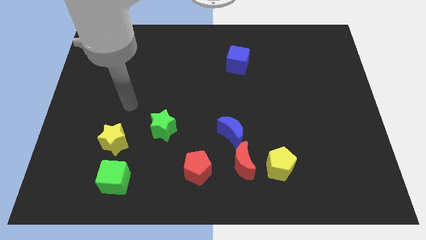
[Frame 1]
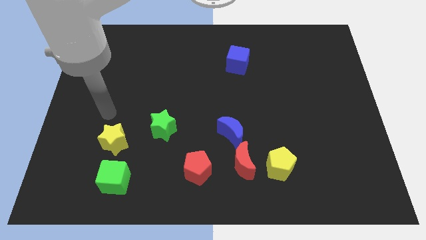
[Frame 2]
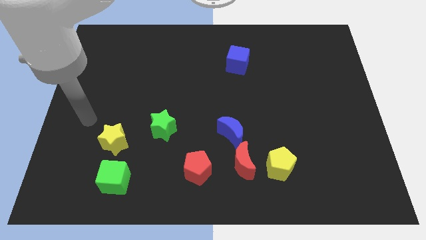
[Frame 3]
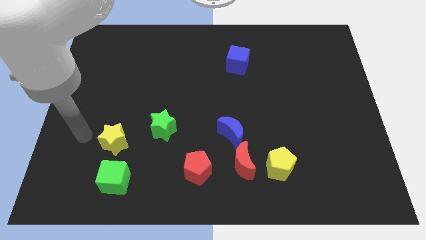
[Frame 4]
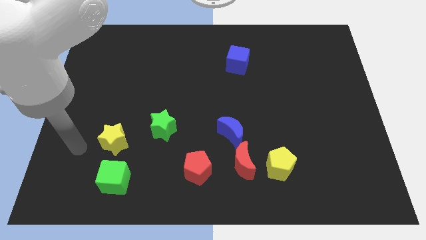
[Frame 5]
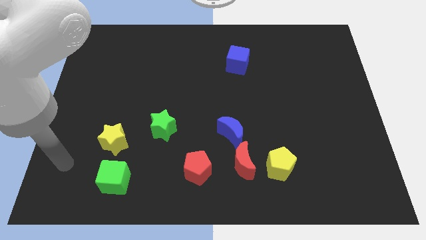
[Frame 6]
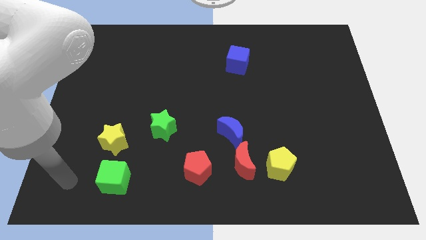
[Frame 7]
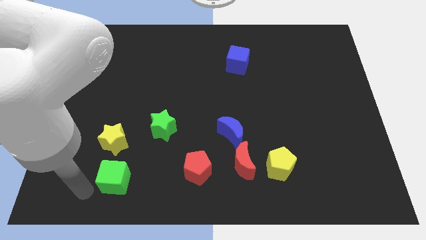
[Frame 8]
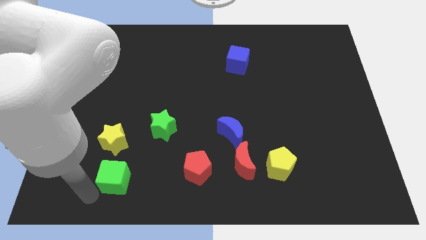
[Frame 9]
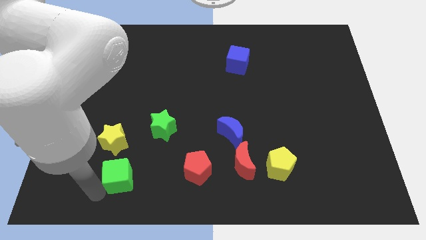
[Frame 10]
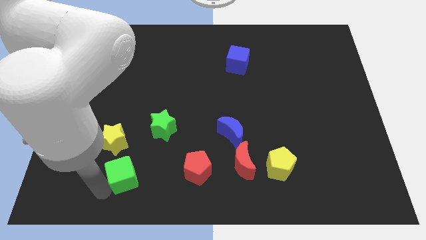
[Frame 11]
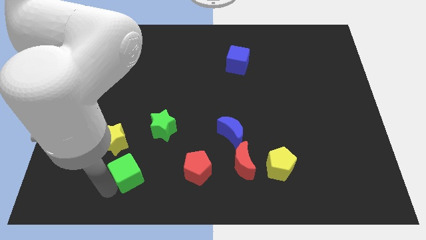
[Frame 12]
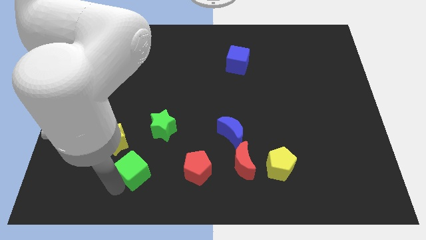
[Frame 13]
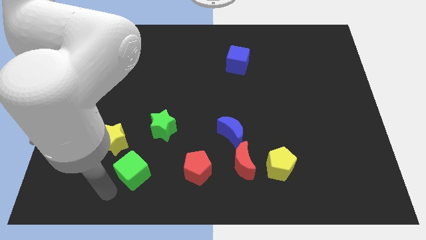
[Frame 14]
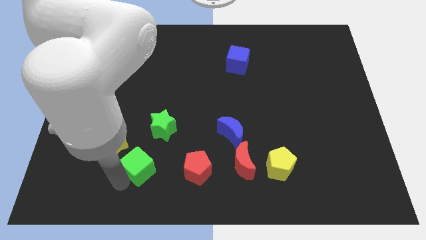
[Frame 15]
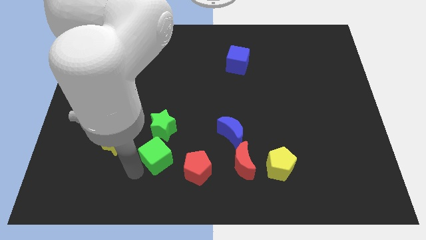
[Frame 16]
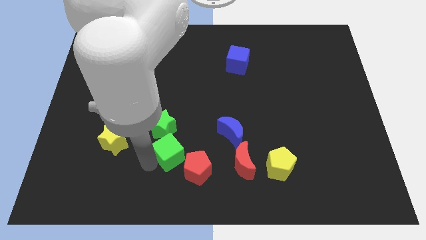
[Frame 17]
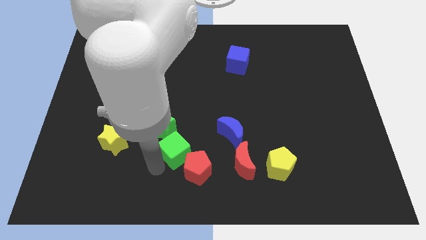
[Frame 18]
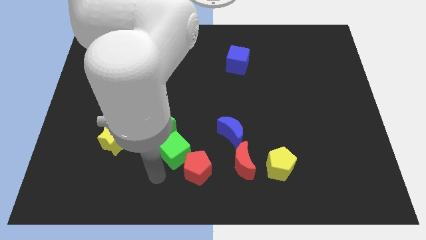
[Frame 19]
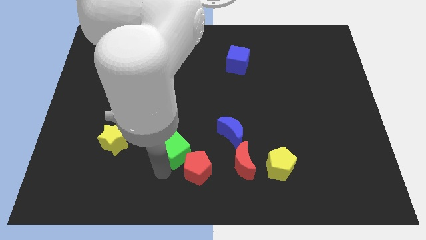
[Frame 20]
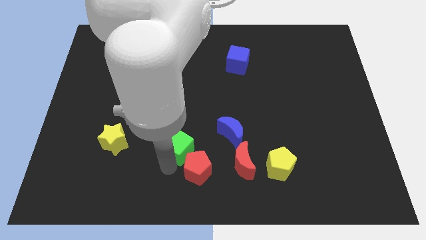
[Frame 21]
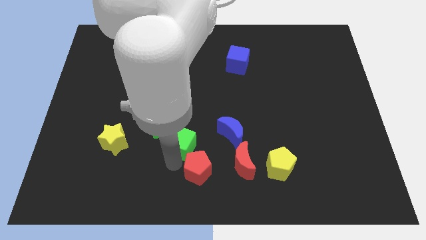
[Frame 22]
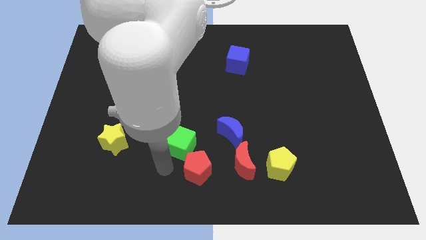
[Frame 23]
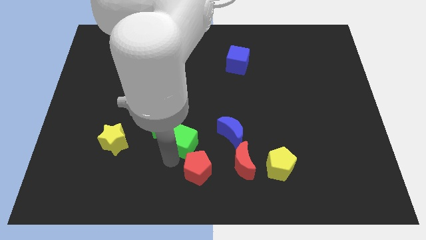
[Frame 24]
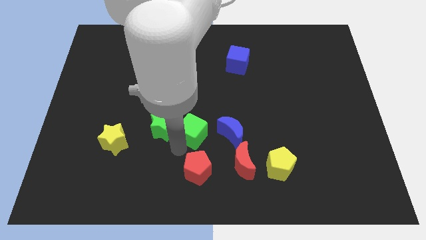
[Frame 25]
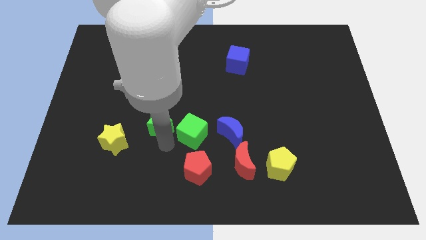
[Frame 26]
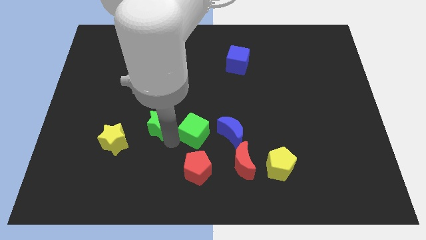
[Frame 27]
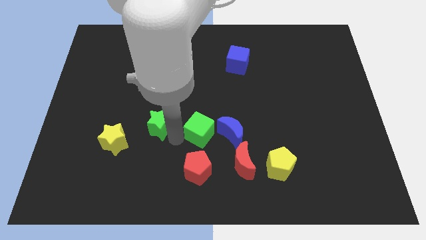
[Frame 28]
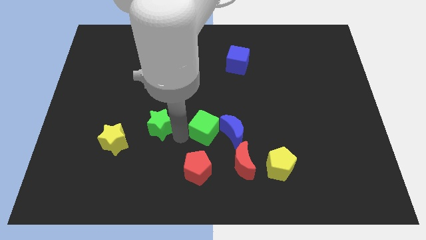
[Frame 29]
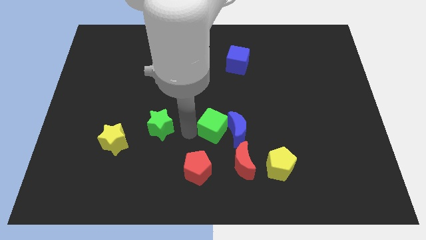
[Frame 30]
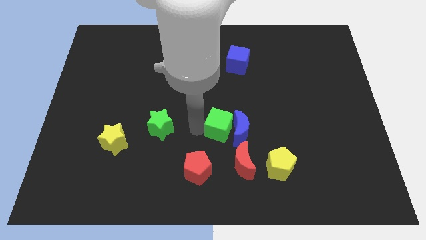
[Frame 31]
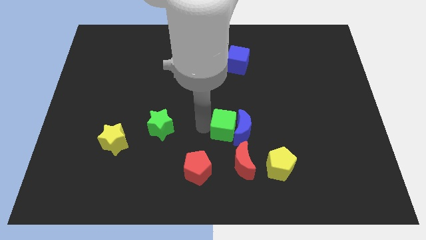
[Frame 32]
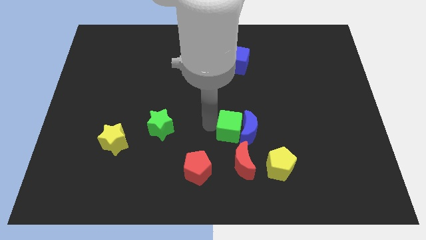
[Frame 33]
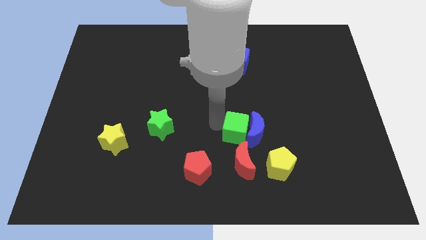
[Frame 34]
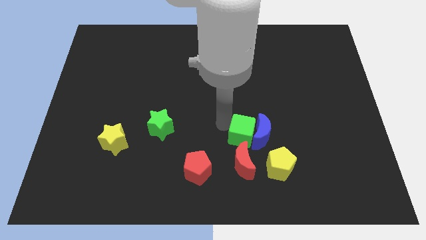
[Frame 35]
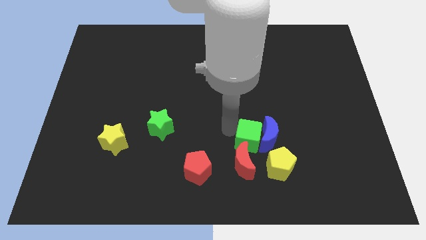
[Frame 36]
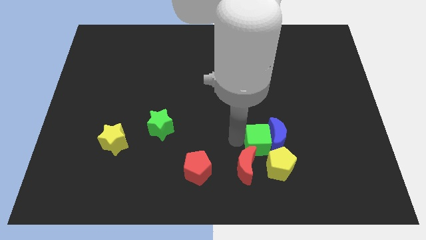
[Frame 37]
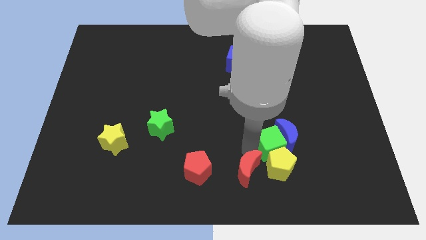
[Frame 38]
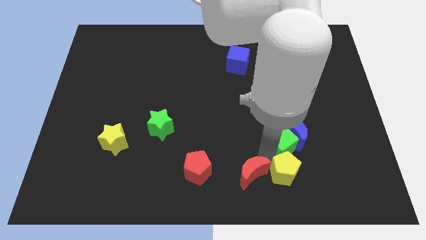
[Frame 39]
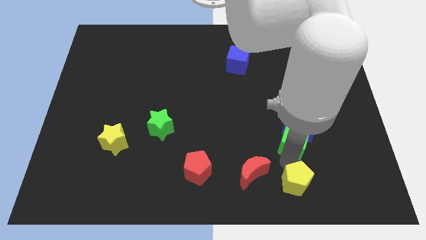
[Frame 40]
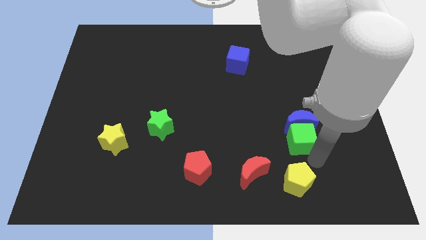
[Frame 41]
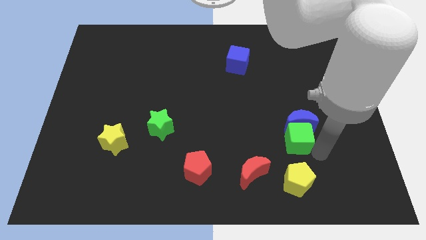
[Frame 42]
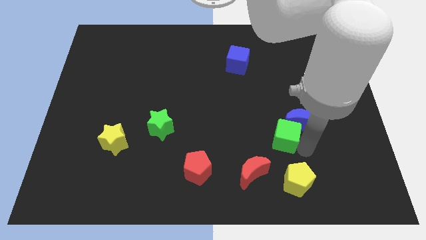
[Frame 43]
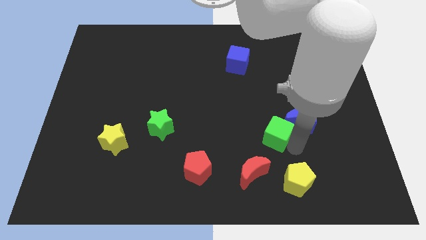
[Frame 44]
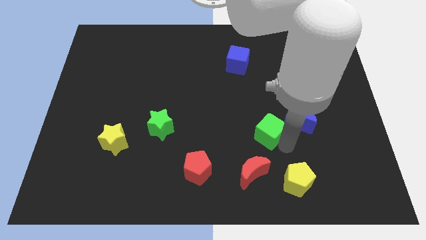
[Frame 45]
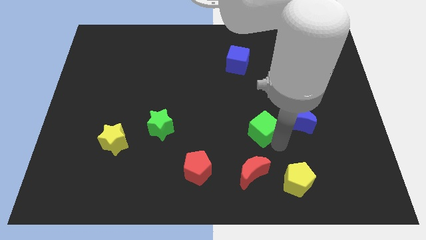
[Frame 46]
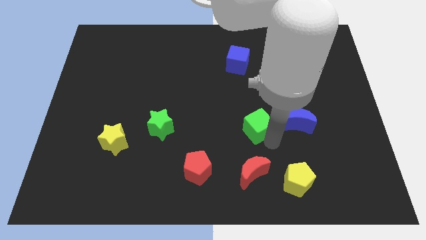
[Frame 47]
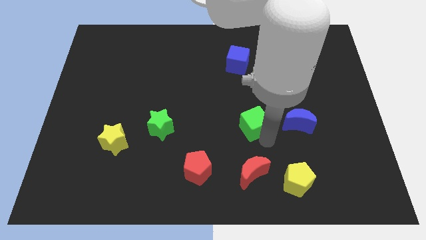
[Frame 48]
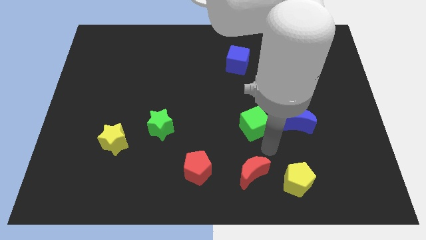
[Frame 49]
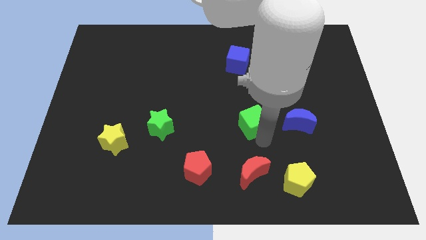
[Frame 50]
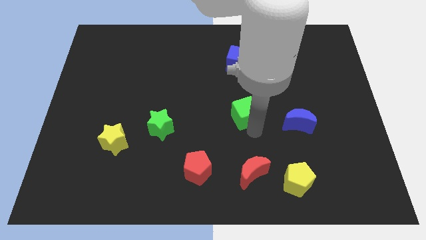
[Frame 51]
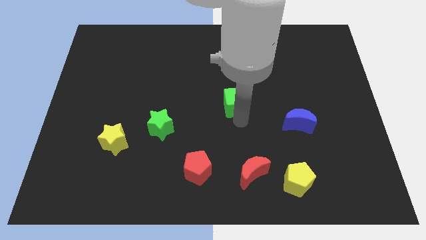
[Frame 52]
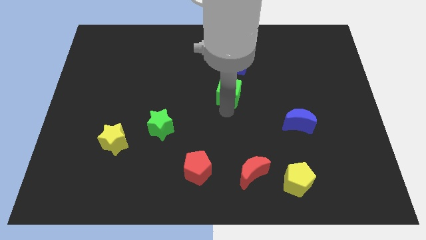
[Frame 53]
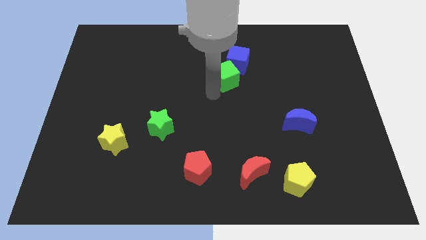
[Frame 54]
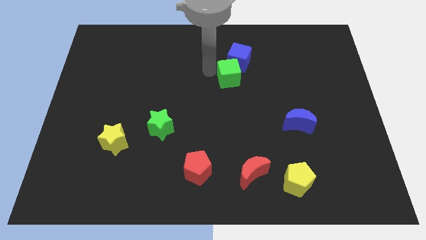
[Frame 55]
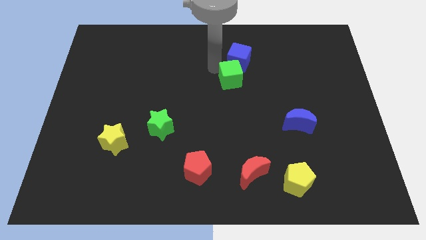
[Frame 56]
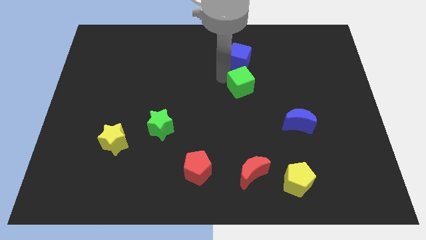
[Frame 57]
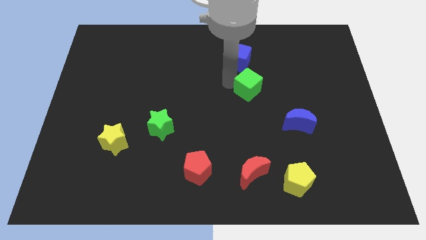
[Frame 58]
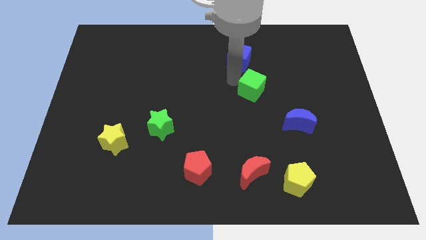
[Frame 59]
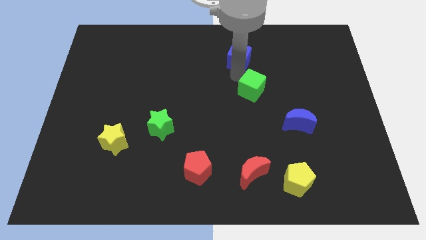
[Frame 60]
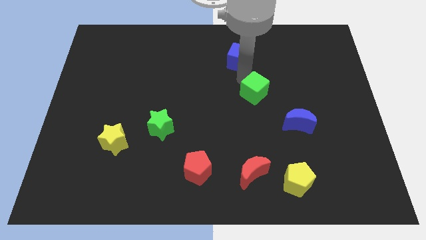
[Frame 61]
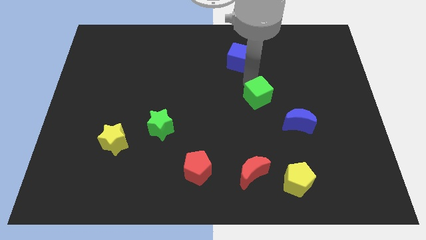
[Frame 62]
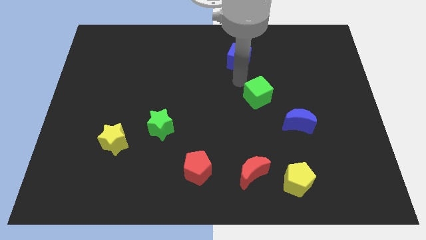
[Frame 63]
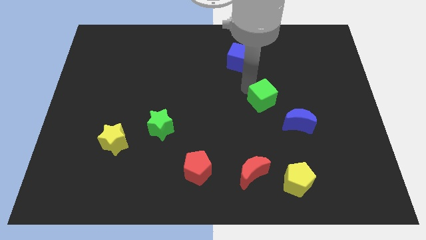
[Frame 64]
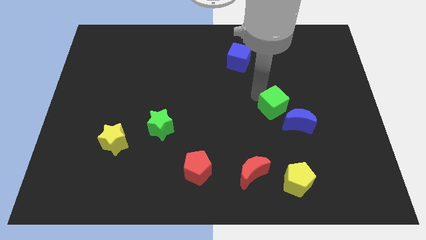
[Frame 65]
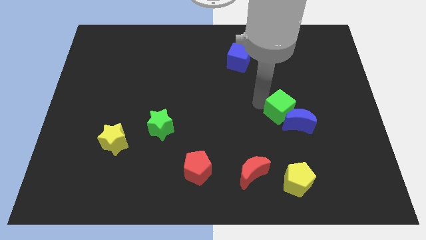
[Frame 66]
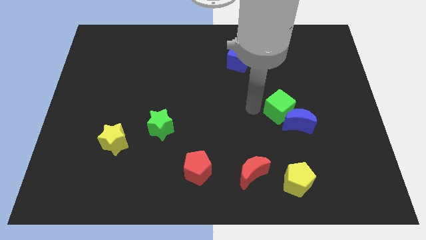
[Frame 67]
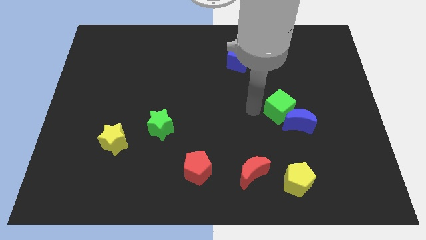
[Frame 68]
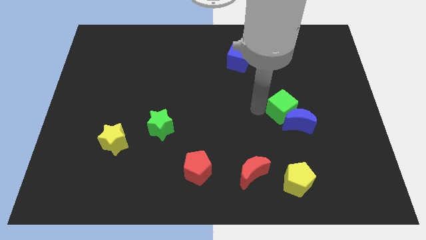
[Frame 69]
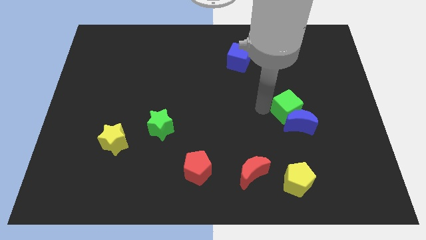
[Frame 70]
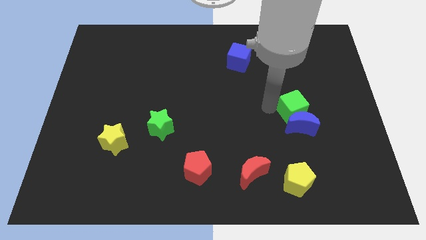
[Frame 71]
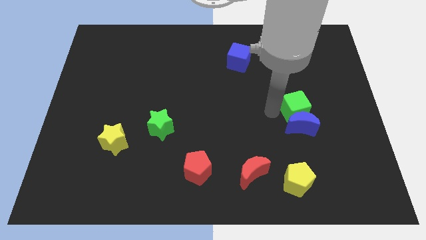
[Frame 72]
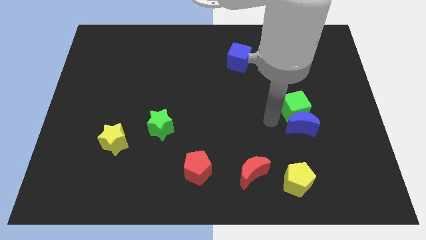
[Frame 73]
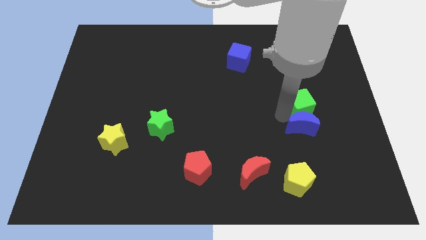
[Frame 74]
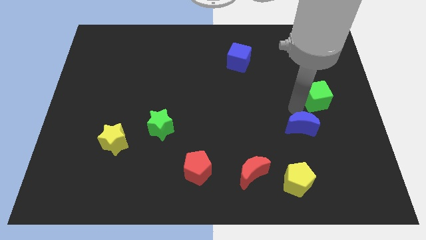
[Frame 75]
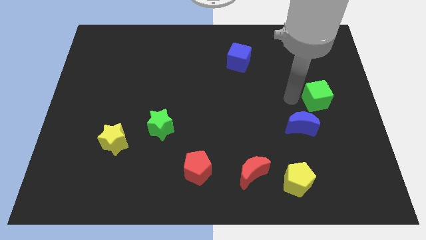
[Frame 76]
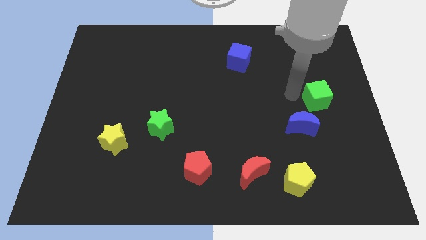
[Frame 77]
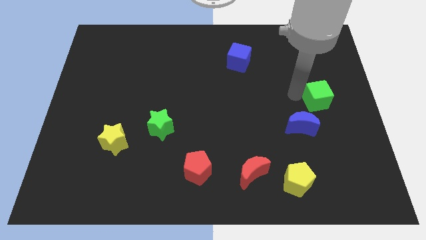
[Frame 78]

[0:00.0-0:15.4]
slide the green cube to the right side
